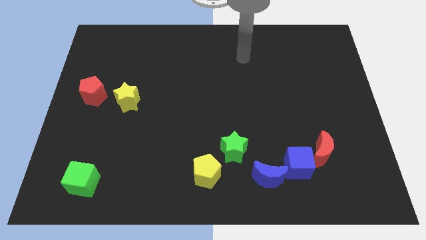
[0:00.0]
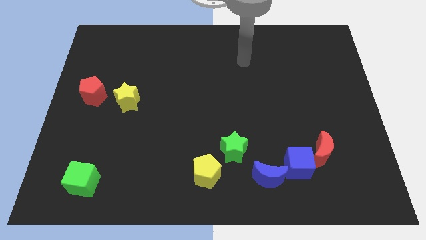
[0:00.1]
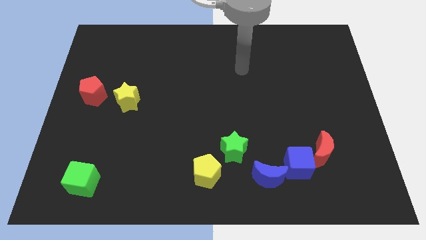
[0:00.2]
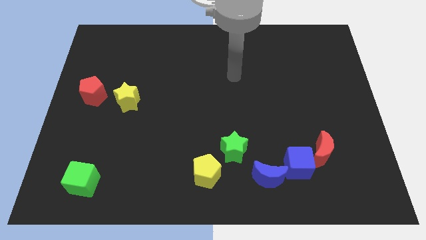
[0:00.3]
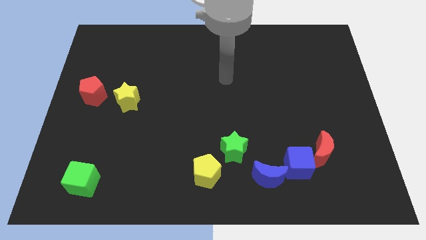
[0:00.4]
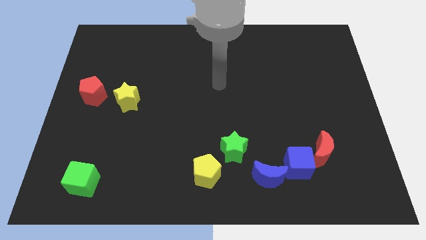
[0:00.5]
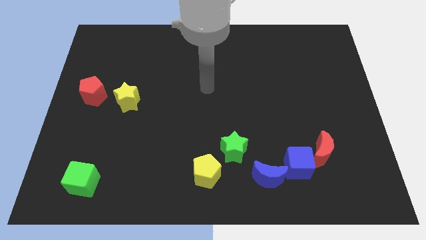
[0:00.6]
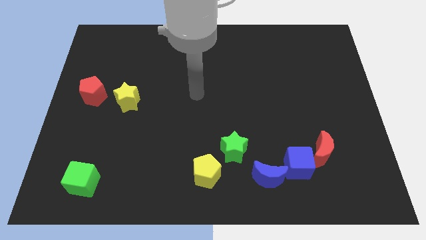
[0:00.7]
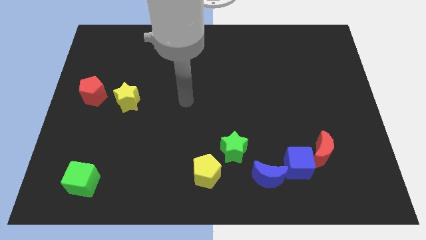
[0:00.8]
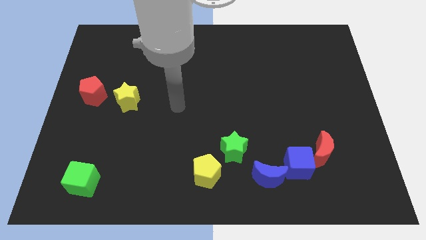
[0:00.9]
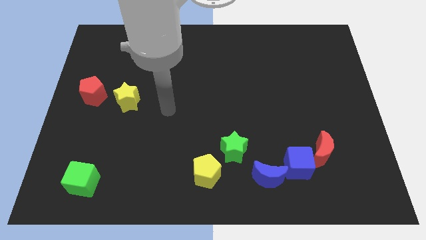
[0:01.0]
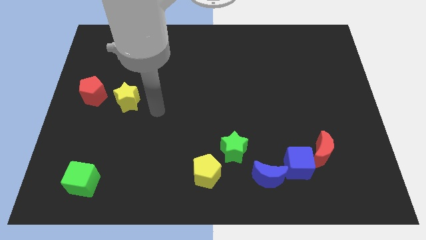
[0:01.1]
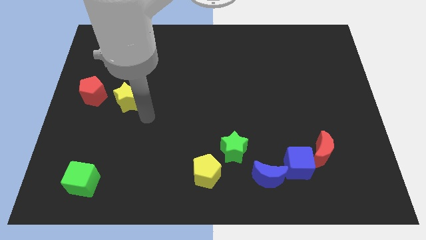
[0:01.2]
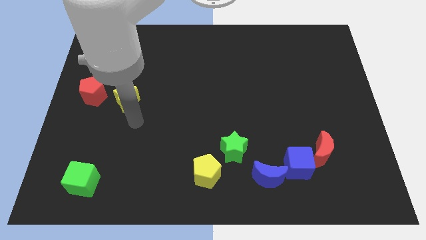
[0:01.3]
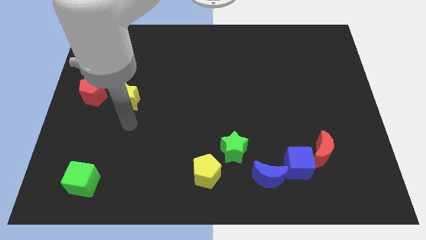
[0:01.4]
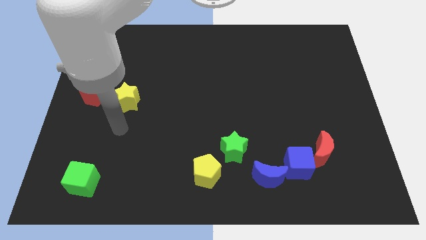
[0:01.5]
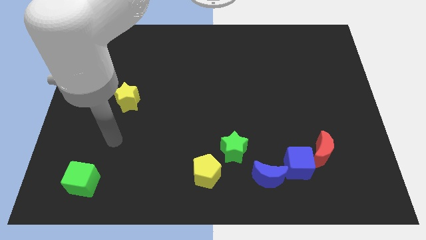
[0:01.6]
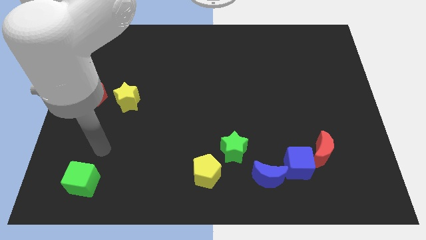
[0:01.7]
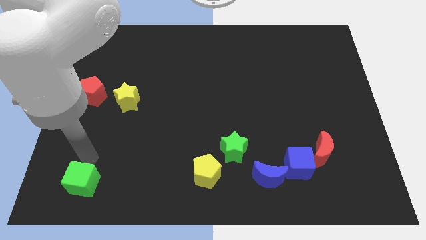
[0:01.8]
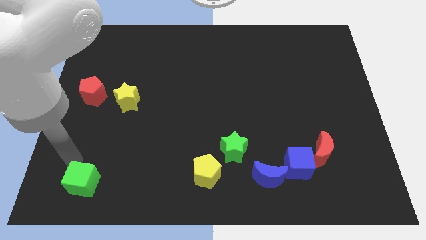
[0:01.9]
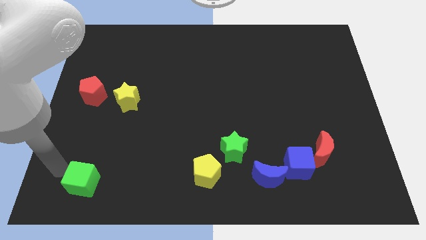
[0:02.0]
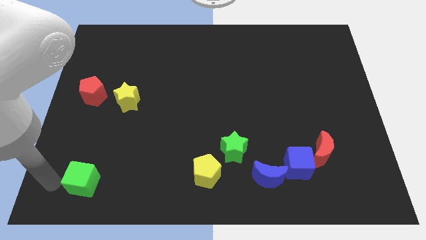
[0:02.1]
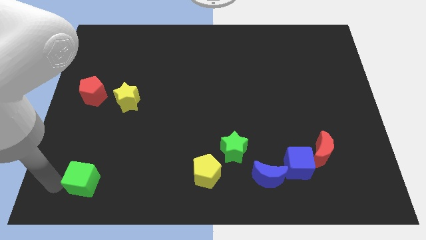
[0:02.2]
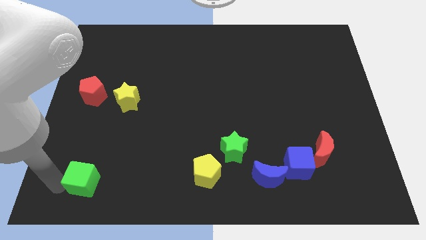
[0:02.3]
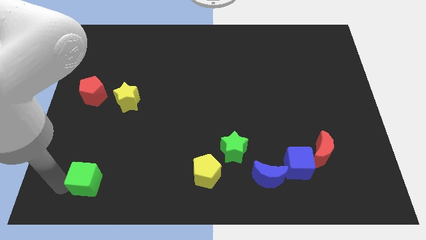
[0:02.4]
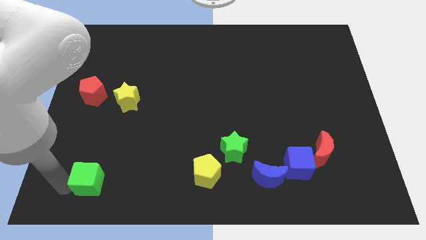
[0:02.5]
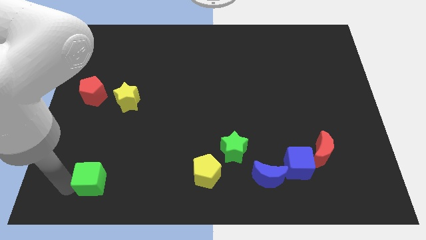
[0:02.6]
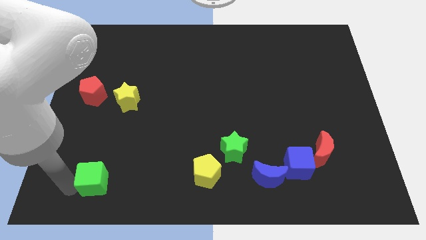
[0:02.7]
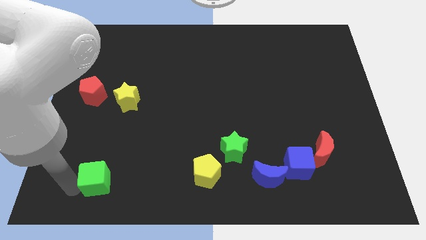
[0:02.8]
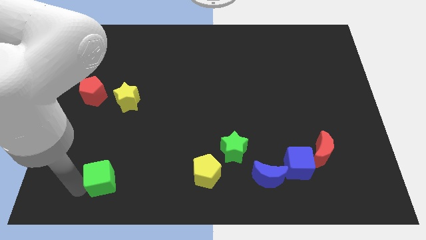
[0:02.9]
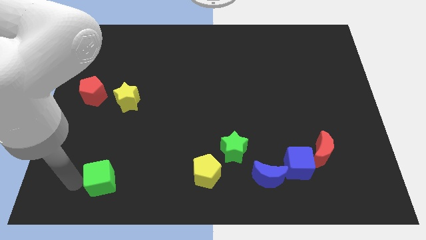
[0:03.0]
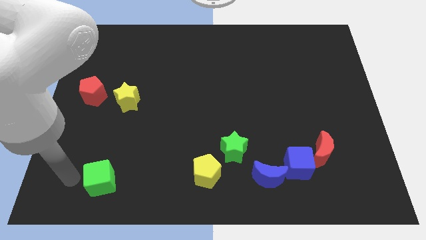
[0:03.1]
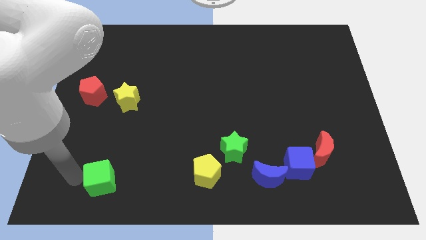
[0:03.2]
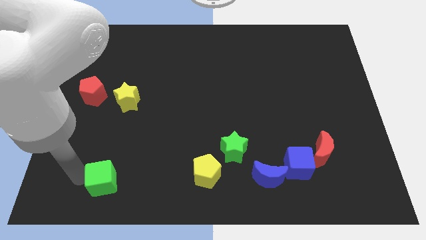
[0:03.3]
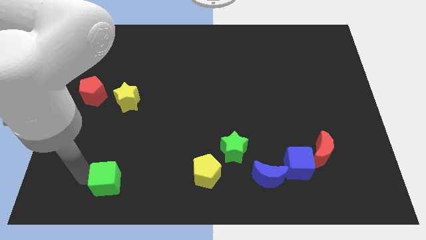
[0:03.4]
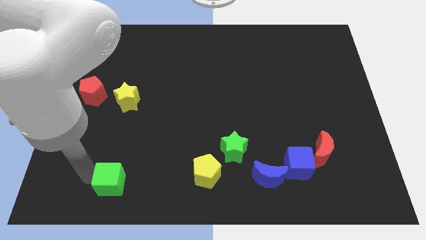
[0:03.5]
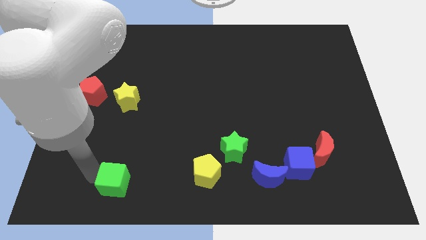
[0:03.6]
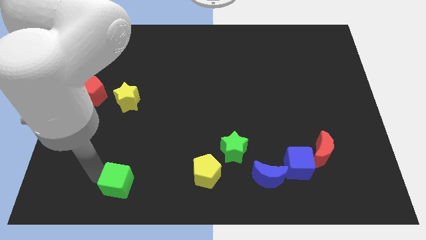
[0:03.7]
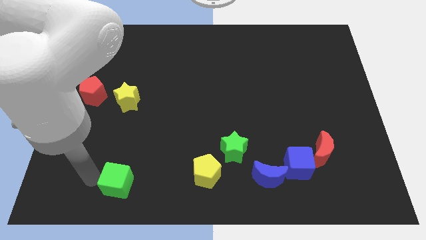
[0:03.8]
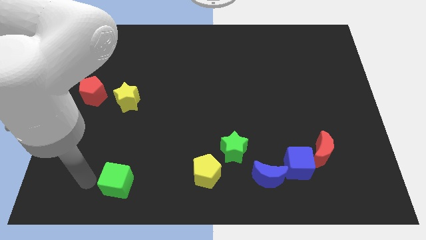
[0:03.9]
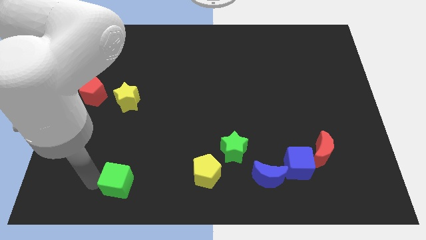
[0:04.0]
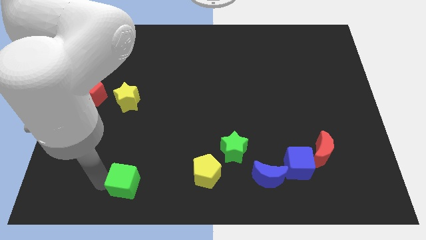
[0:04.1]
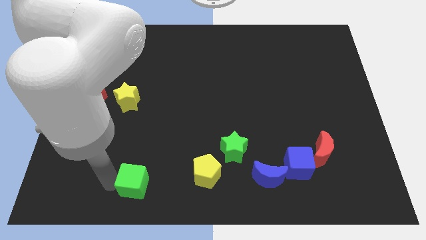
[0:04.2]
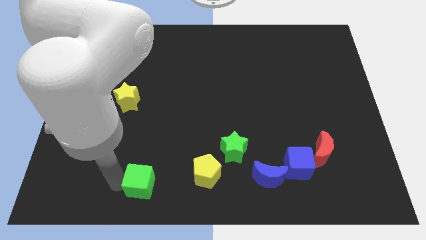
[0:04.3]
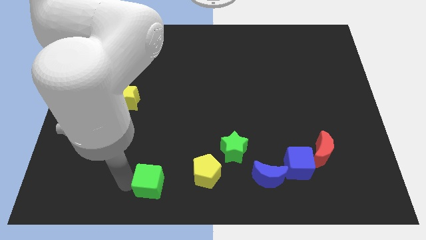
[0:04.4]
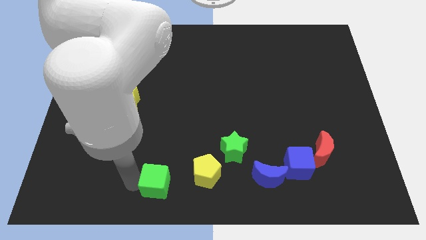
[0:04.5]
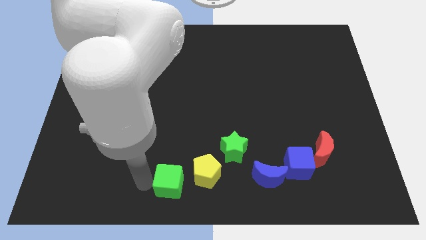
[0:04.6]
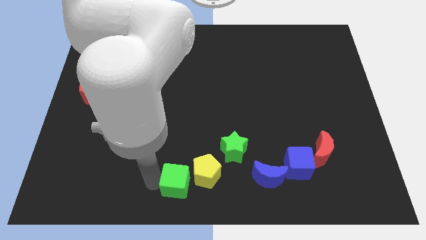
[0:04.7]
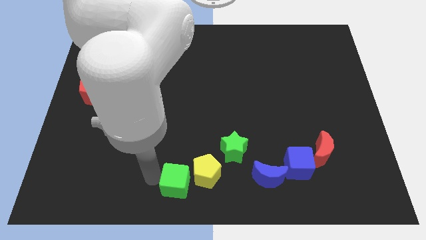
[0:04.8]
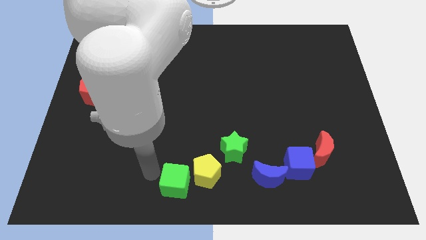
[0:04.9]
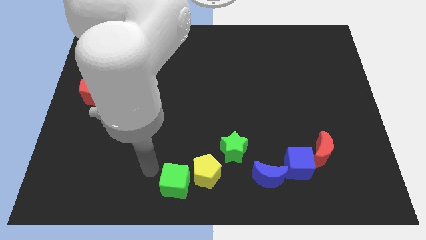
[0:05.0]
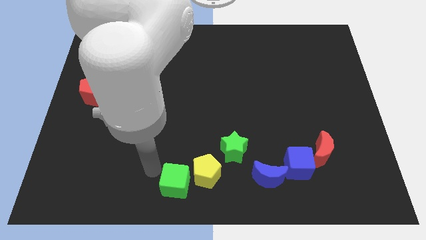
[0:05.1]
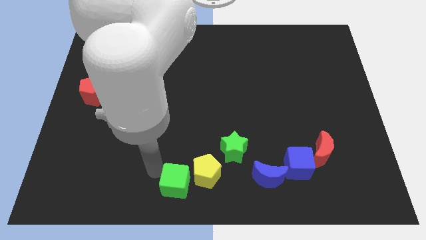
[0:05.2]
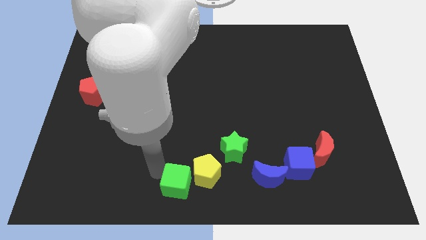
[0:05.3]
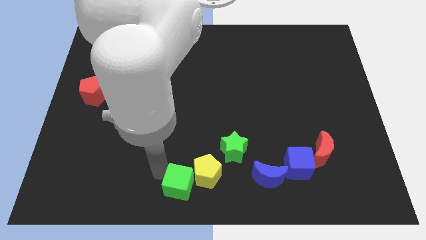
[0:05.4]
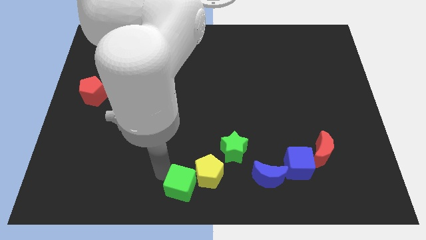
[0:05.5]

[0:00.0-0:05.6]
slide the green cube to the right

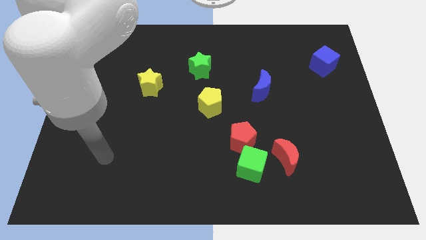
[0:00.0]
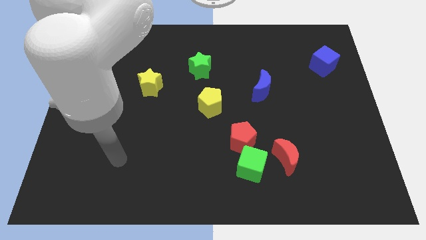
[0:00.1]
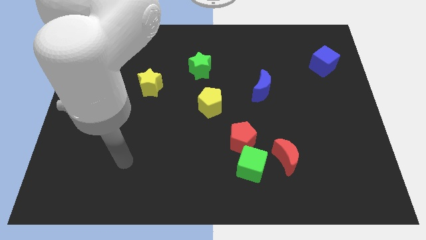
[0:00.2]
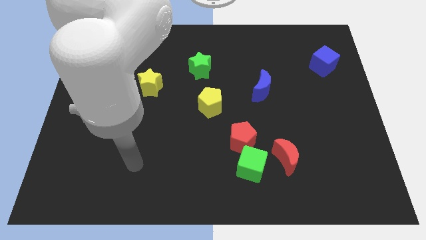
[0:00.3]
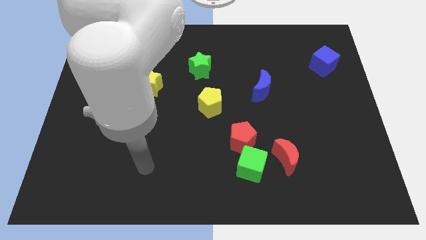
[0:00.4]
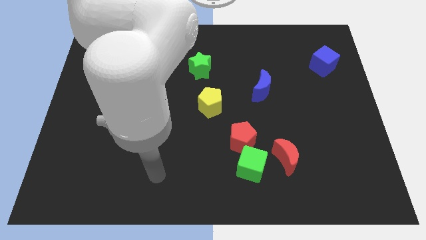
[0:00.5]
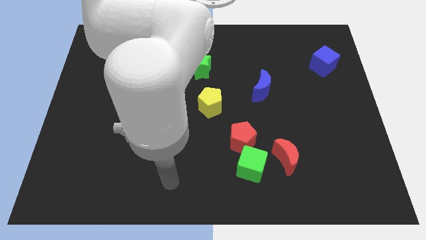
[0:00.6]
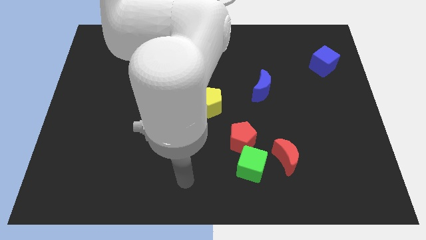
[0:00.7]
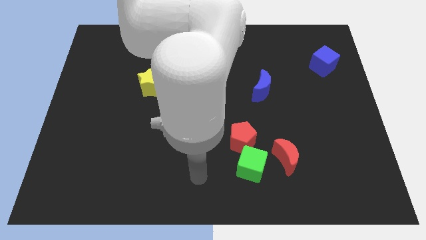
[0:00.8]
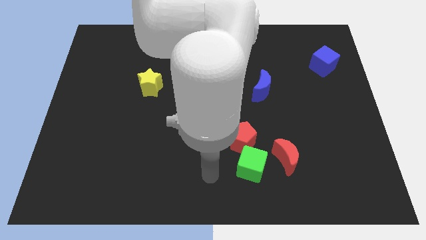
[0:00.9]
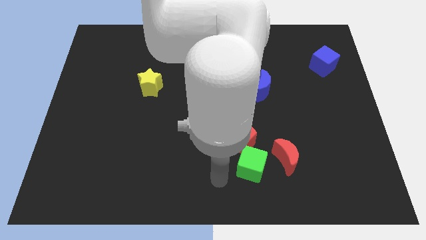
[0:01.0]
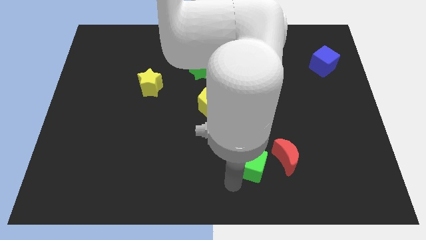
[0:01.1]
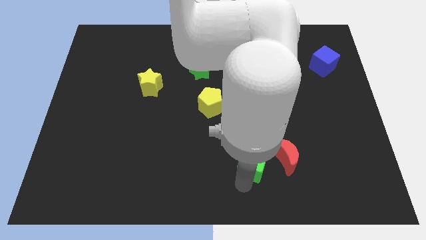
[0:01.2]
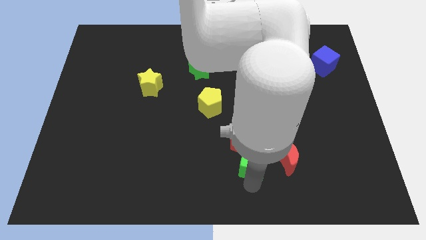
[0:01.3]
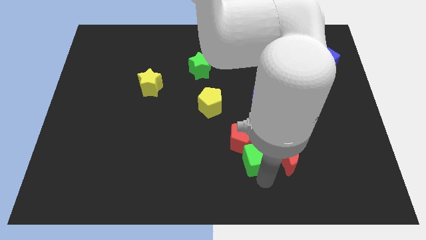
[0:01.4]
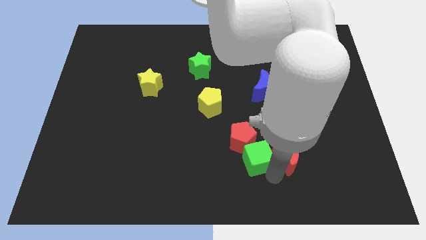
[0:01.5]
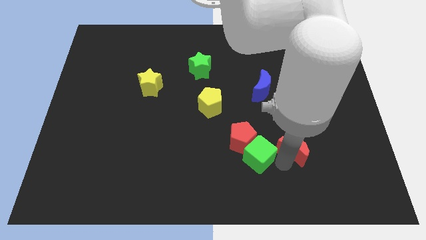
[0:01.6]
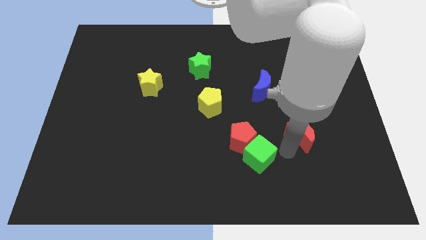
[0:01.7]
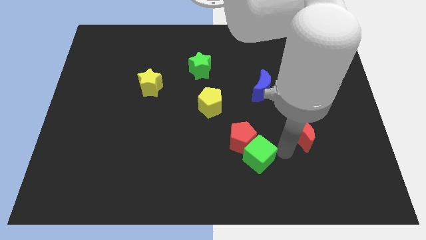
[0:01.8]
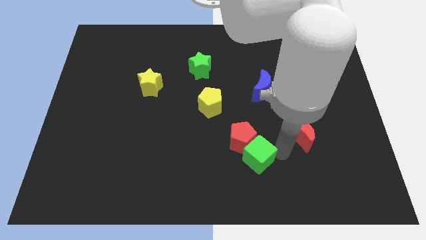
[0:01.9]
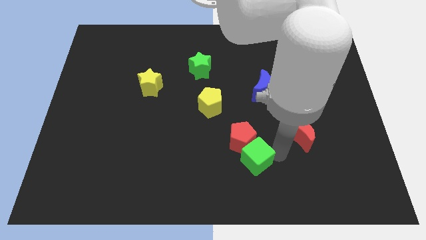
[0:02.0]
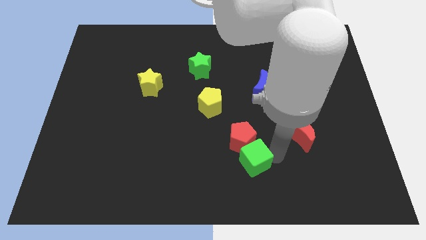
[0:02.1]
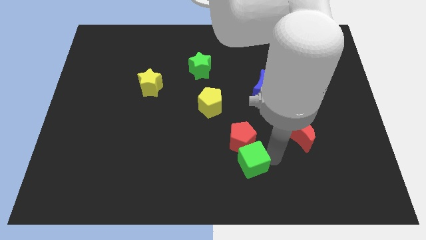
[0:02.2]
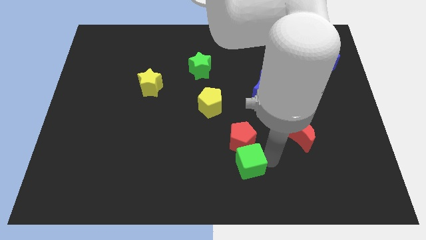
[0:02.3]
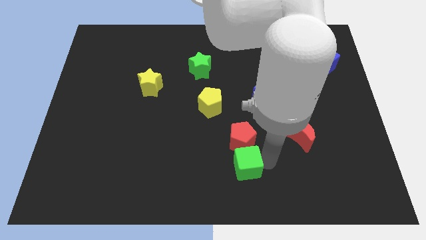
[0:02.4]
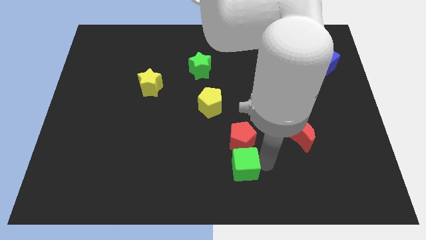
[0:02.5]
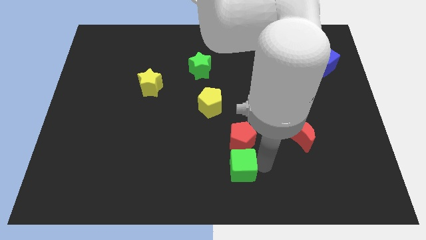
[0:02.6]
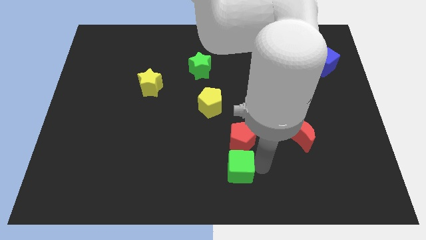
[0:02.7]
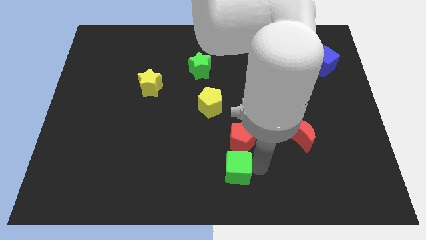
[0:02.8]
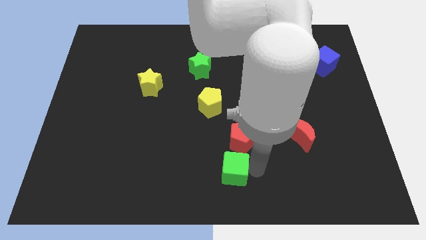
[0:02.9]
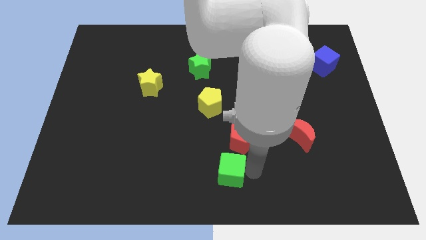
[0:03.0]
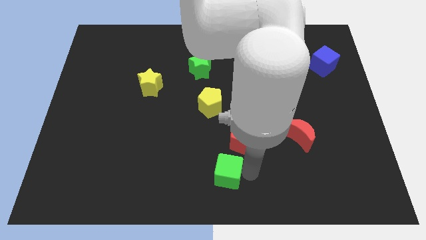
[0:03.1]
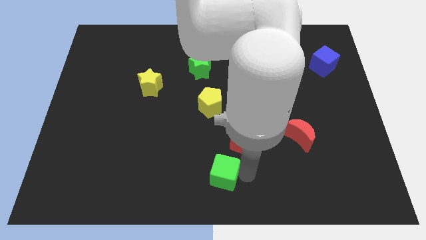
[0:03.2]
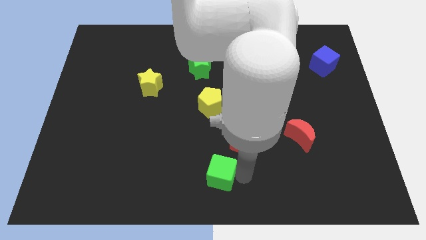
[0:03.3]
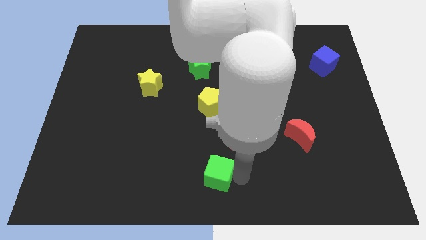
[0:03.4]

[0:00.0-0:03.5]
push the green cube somewhat to the left
